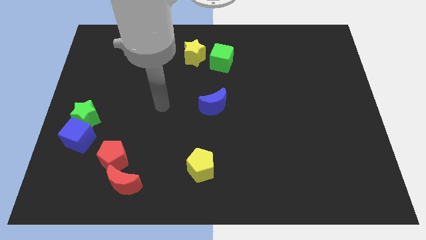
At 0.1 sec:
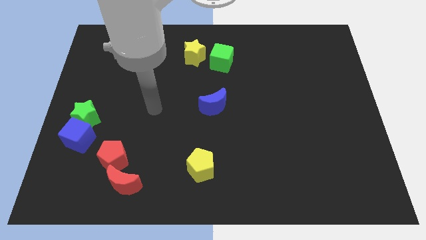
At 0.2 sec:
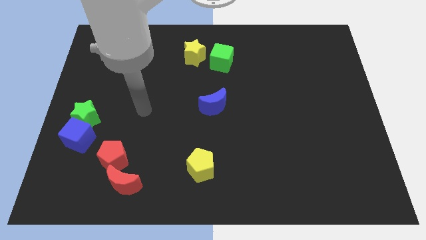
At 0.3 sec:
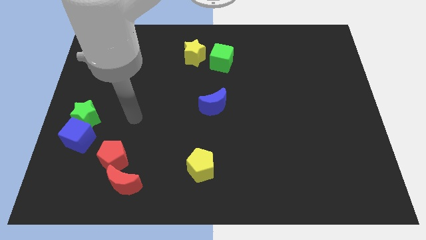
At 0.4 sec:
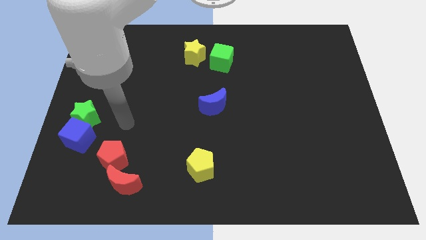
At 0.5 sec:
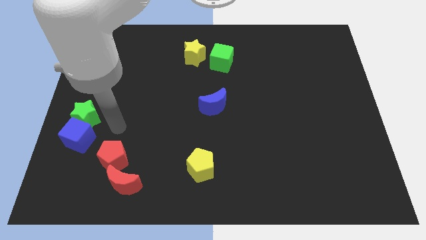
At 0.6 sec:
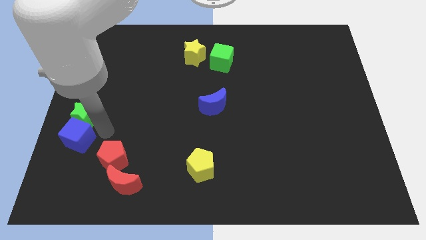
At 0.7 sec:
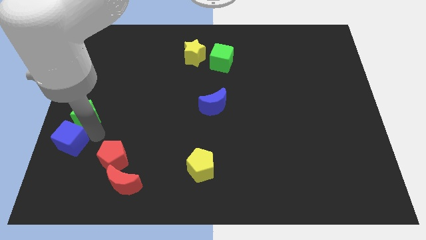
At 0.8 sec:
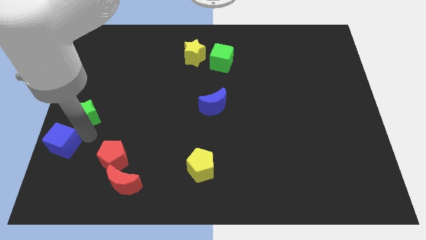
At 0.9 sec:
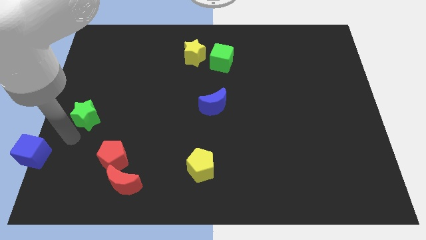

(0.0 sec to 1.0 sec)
separate the green star from the blue cube

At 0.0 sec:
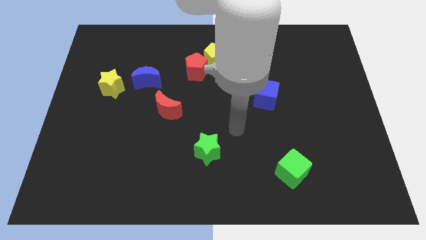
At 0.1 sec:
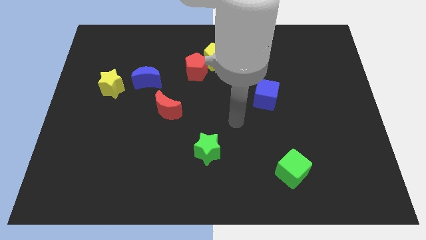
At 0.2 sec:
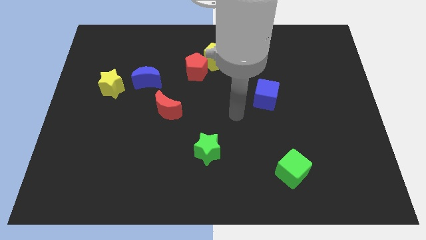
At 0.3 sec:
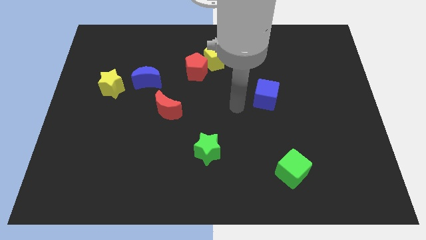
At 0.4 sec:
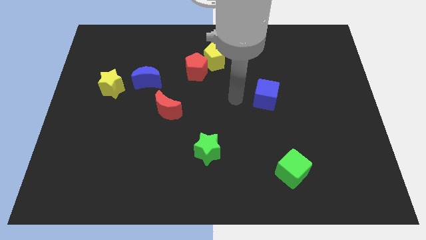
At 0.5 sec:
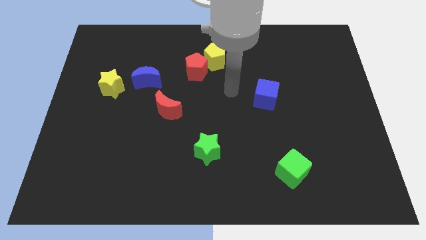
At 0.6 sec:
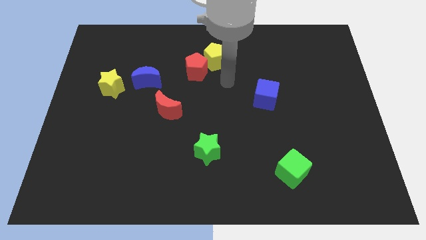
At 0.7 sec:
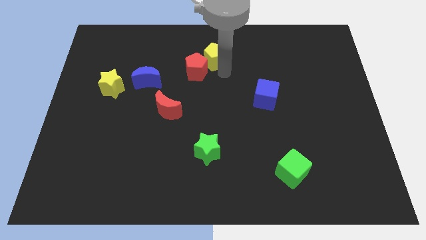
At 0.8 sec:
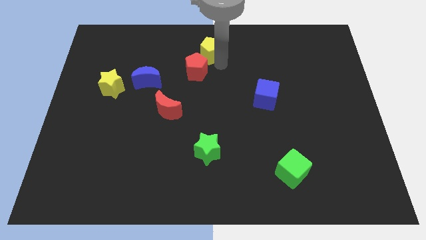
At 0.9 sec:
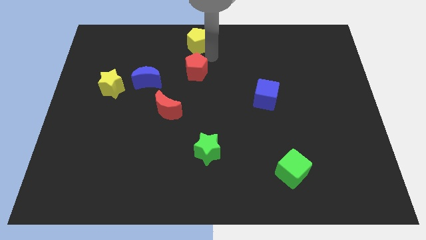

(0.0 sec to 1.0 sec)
separate the red pentagon from the yellow pentagon

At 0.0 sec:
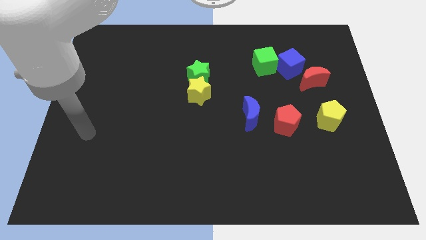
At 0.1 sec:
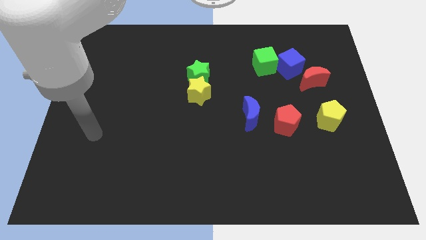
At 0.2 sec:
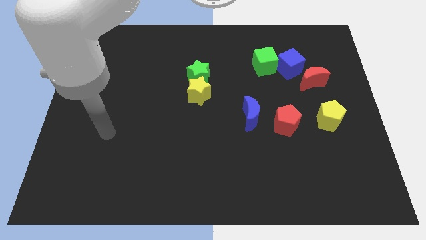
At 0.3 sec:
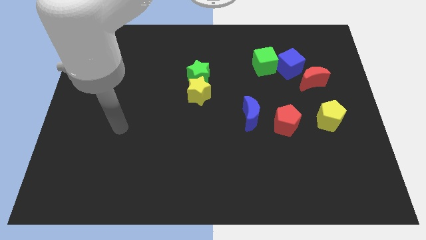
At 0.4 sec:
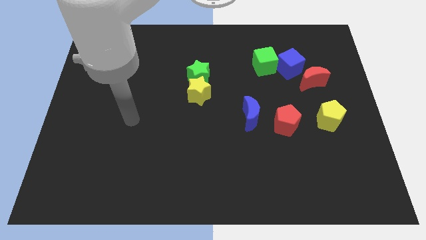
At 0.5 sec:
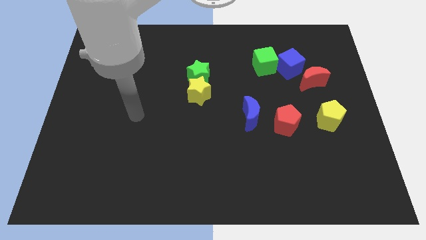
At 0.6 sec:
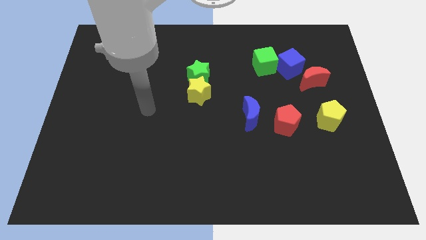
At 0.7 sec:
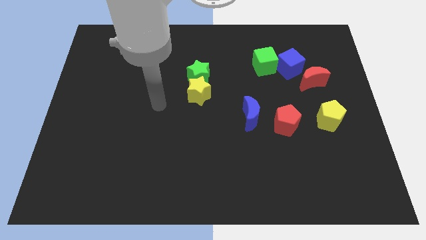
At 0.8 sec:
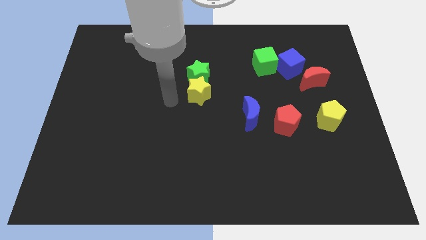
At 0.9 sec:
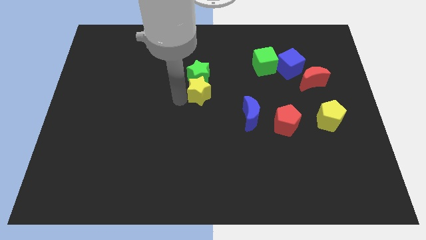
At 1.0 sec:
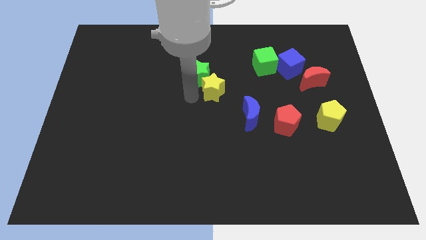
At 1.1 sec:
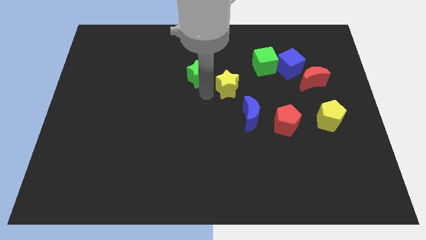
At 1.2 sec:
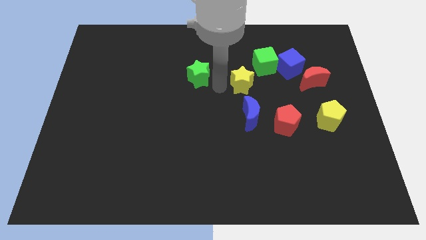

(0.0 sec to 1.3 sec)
move the green star away from the yellow star

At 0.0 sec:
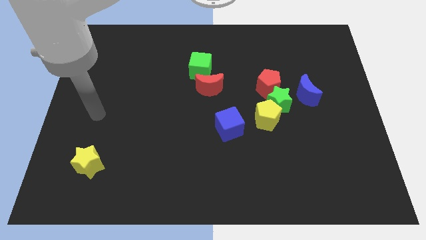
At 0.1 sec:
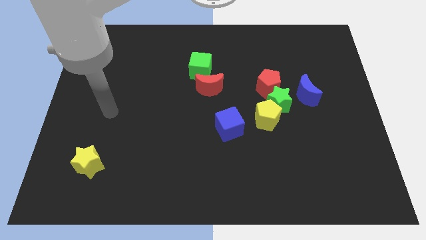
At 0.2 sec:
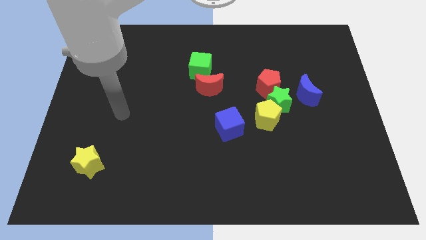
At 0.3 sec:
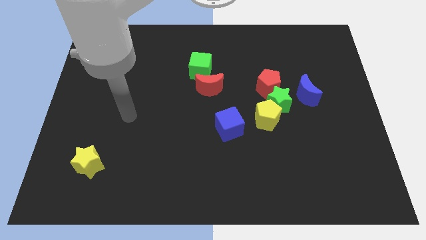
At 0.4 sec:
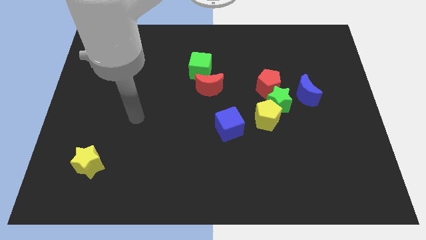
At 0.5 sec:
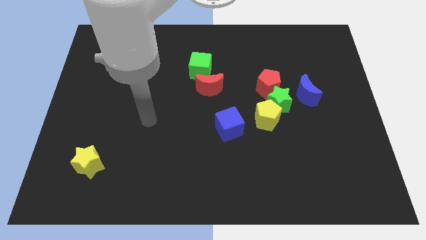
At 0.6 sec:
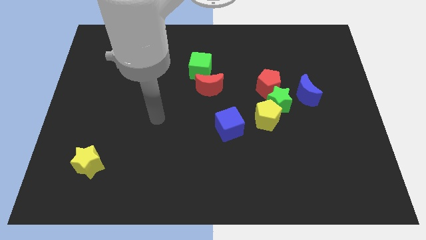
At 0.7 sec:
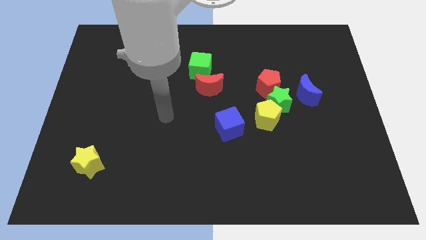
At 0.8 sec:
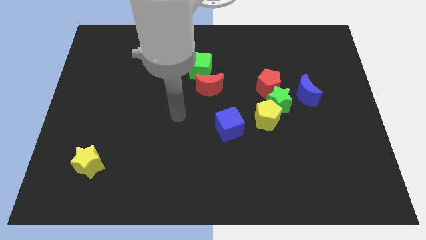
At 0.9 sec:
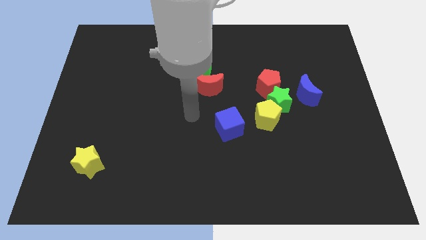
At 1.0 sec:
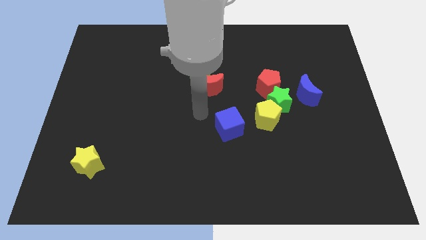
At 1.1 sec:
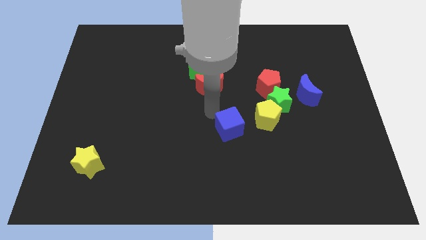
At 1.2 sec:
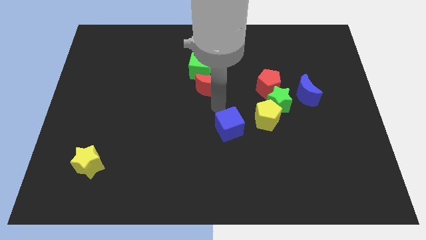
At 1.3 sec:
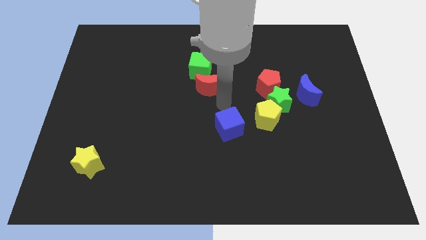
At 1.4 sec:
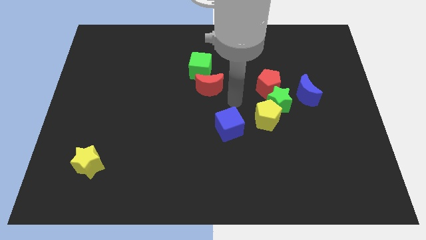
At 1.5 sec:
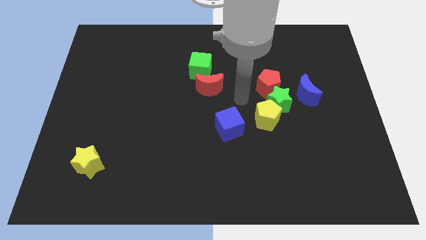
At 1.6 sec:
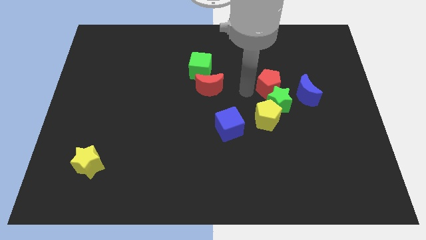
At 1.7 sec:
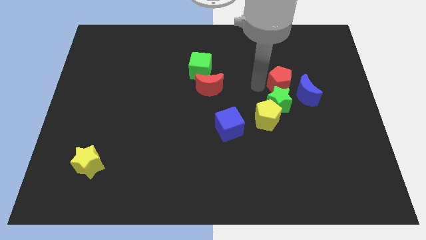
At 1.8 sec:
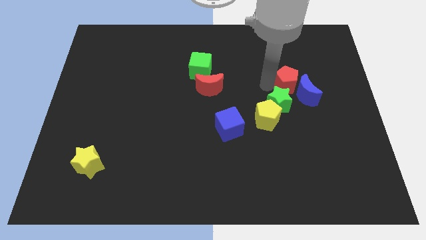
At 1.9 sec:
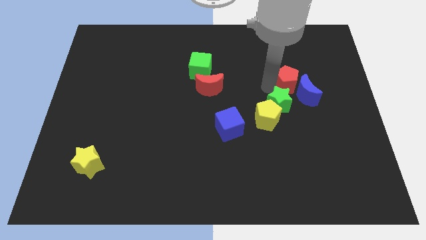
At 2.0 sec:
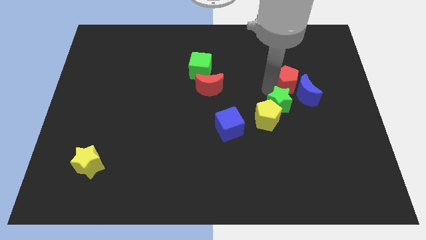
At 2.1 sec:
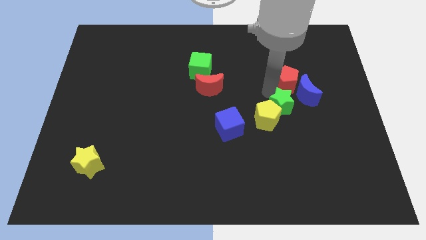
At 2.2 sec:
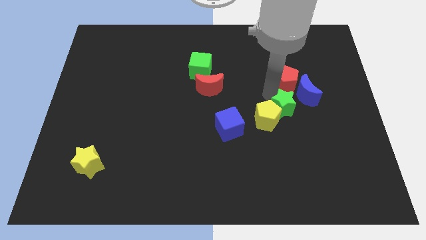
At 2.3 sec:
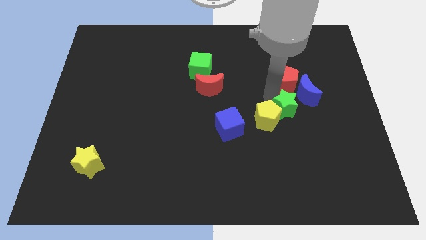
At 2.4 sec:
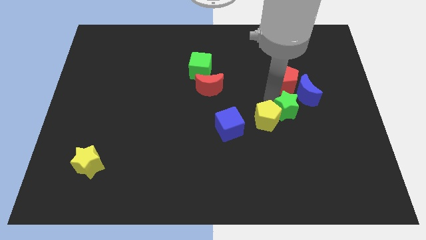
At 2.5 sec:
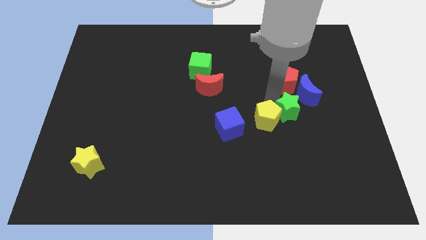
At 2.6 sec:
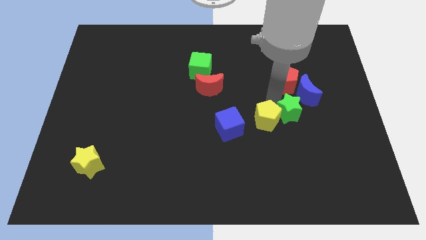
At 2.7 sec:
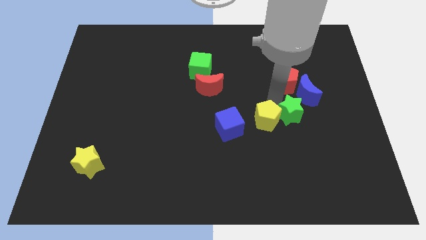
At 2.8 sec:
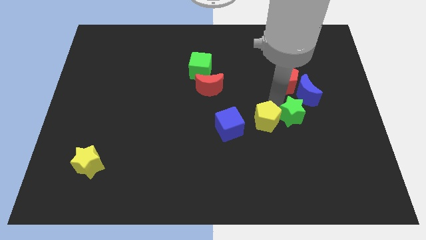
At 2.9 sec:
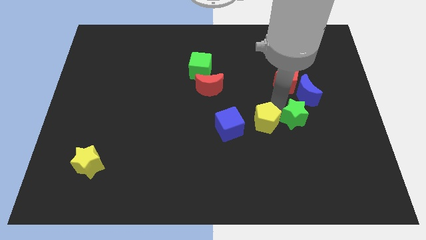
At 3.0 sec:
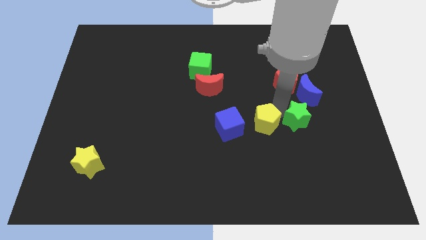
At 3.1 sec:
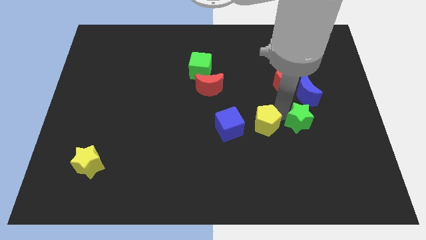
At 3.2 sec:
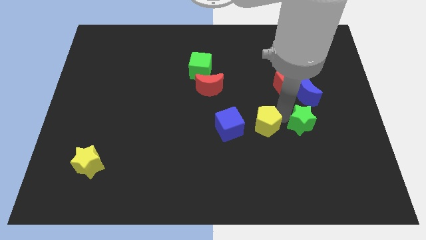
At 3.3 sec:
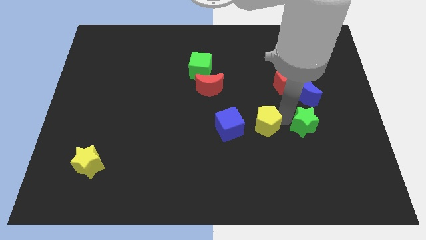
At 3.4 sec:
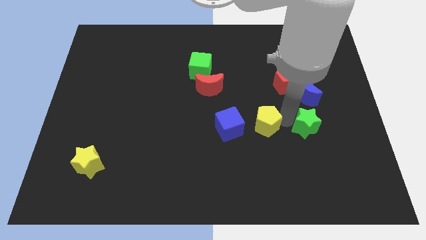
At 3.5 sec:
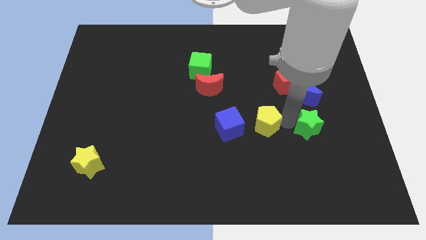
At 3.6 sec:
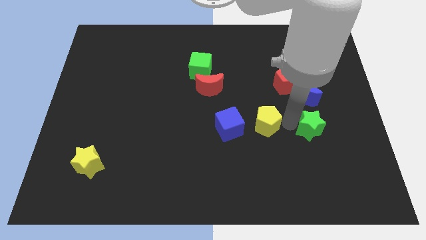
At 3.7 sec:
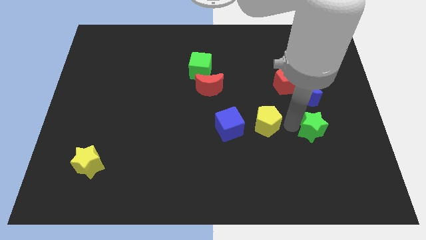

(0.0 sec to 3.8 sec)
pull the green star apart from the yellow pentagon, red pentagon, and blue moon

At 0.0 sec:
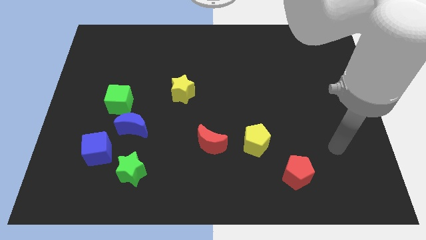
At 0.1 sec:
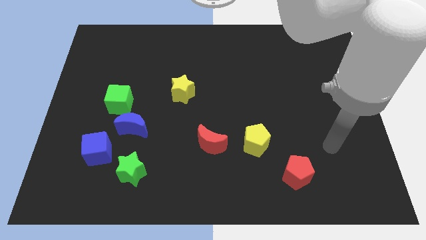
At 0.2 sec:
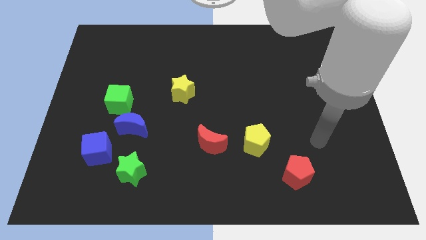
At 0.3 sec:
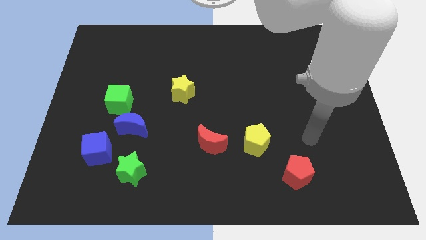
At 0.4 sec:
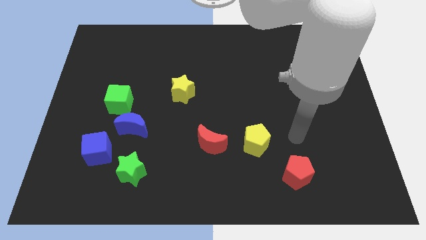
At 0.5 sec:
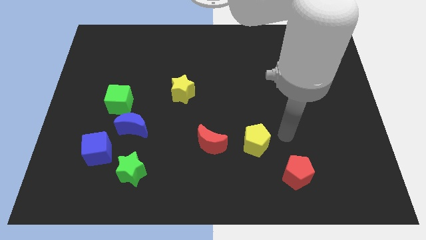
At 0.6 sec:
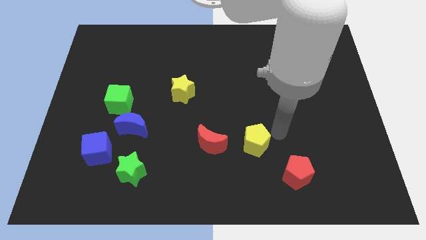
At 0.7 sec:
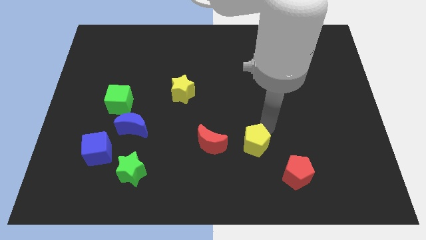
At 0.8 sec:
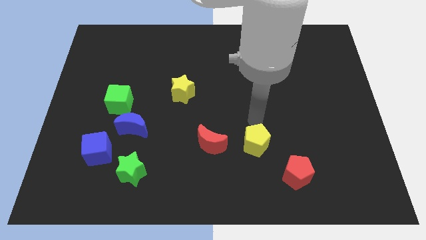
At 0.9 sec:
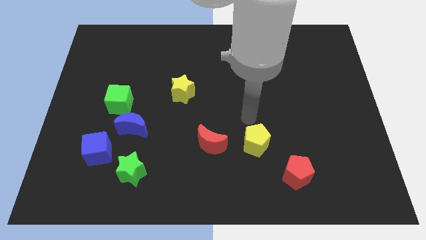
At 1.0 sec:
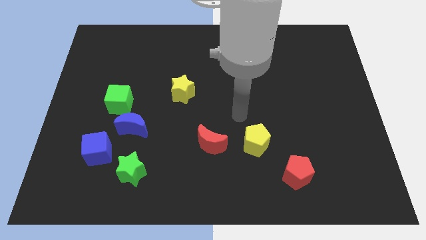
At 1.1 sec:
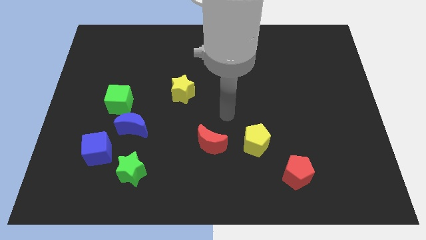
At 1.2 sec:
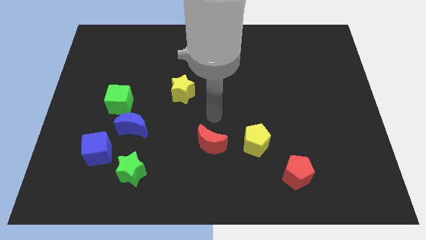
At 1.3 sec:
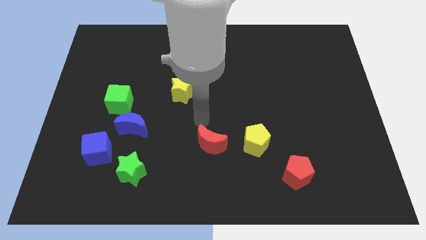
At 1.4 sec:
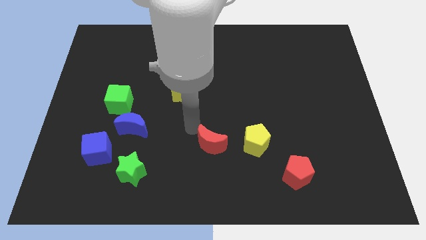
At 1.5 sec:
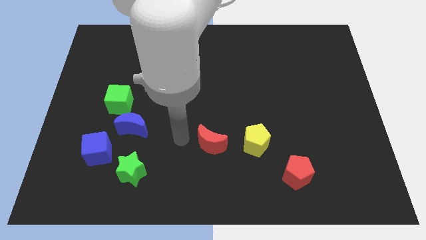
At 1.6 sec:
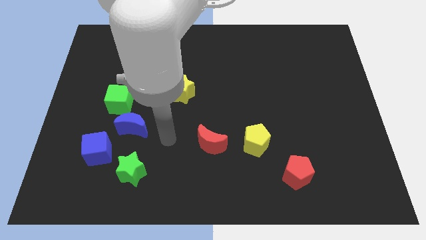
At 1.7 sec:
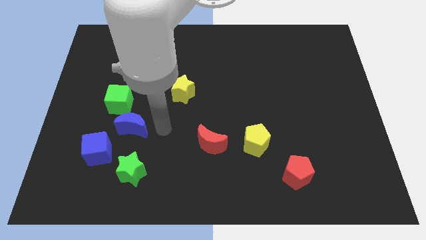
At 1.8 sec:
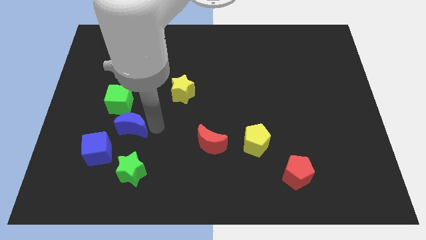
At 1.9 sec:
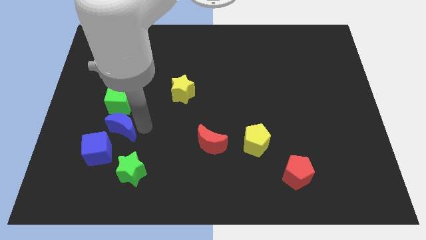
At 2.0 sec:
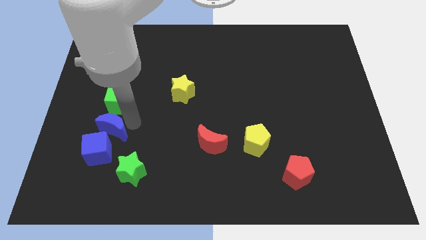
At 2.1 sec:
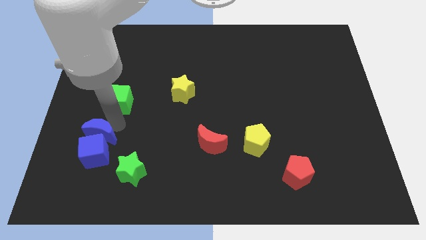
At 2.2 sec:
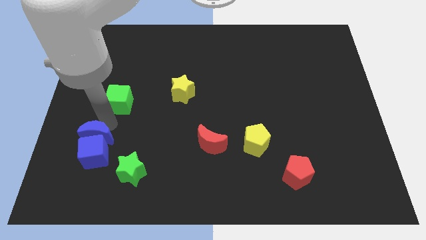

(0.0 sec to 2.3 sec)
pull the green cube apart from the blue moon
